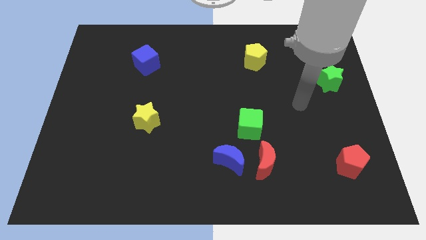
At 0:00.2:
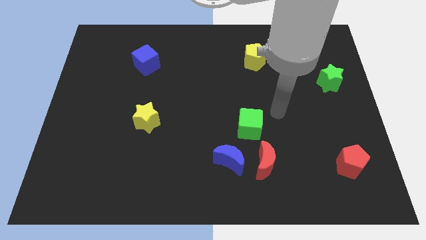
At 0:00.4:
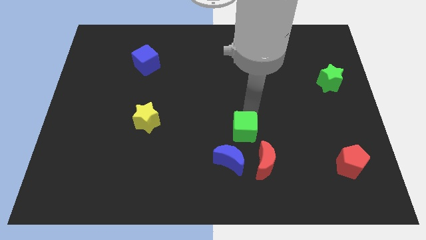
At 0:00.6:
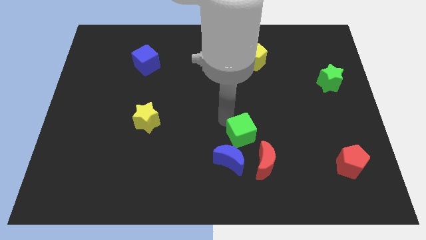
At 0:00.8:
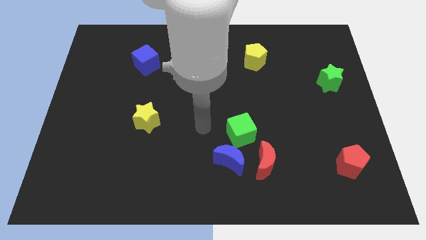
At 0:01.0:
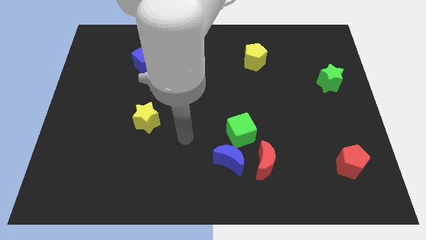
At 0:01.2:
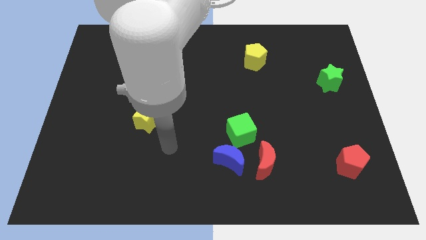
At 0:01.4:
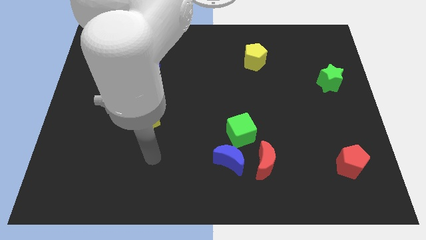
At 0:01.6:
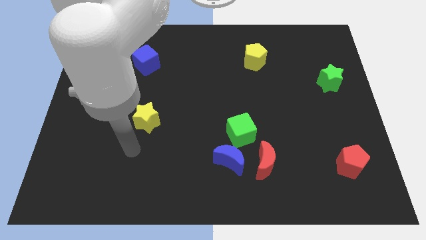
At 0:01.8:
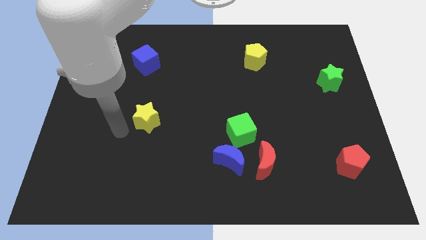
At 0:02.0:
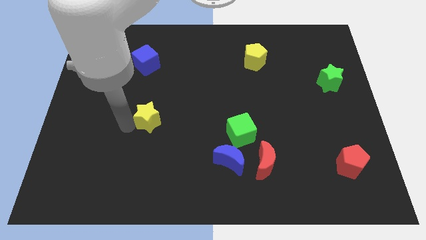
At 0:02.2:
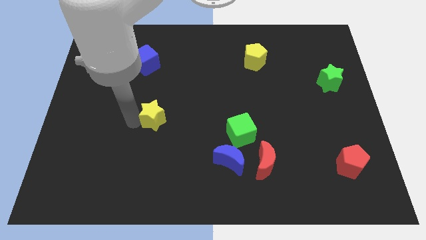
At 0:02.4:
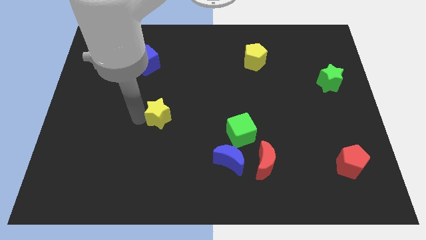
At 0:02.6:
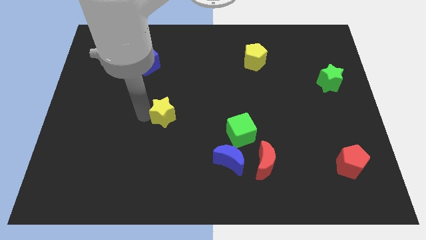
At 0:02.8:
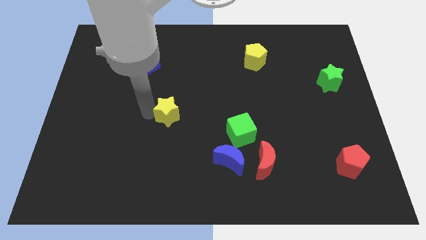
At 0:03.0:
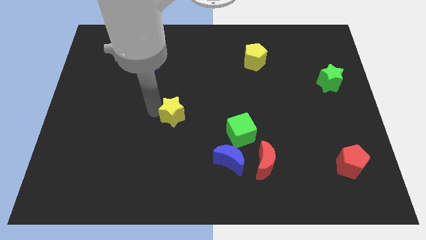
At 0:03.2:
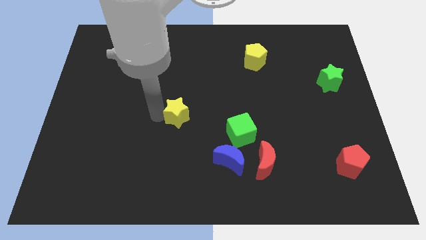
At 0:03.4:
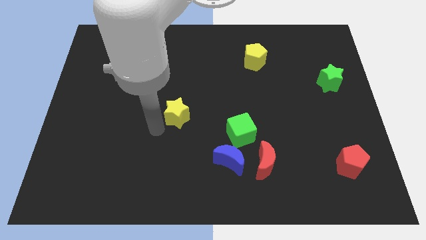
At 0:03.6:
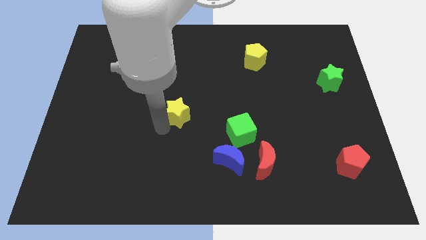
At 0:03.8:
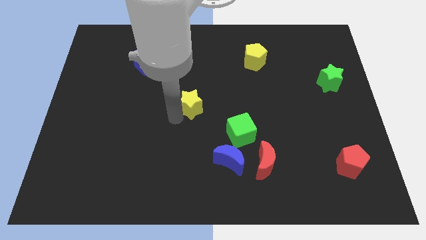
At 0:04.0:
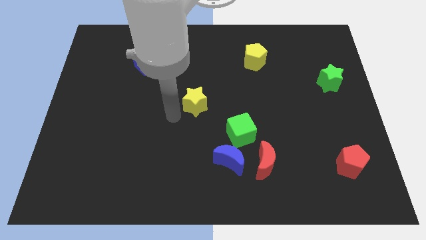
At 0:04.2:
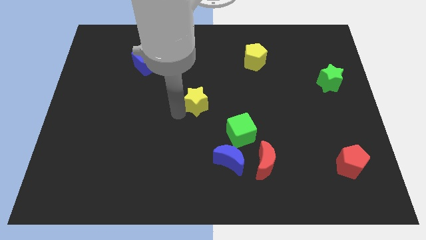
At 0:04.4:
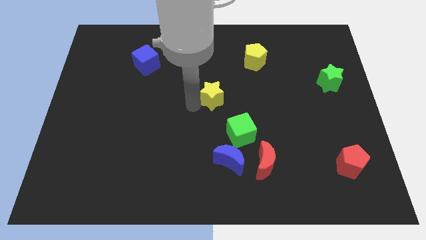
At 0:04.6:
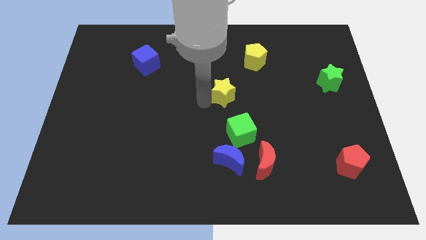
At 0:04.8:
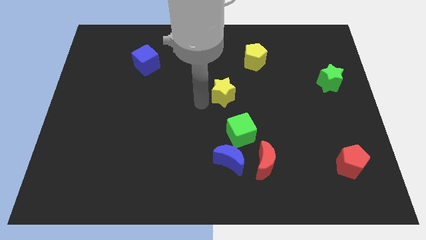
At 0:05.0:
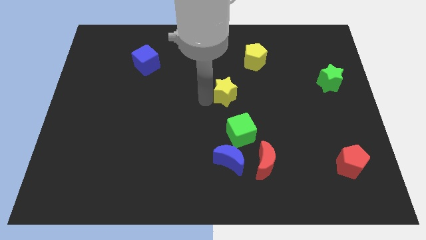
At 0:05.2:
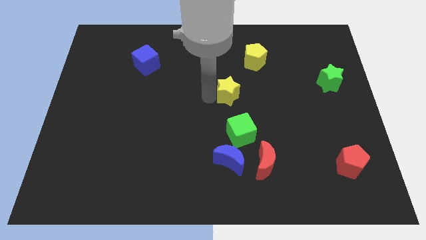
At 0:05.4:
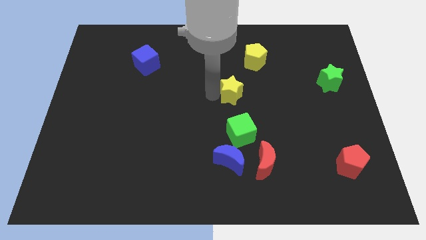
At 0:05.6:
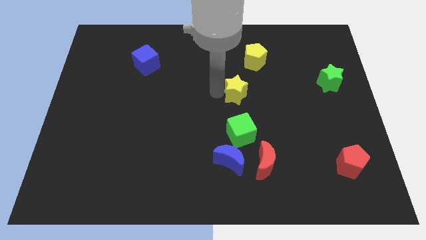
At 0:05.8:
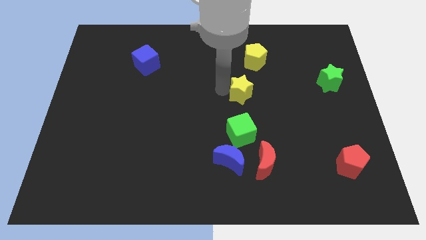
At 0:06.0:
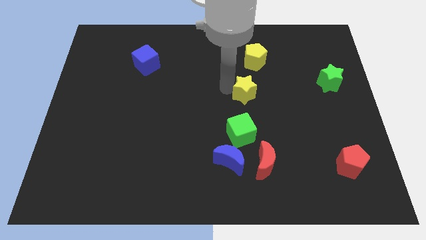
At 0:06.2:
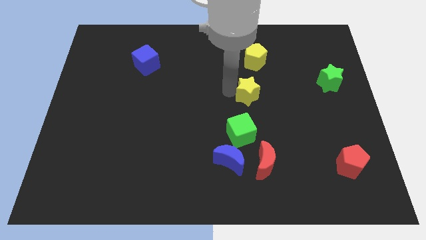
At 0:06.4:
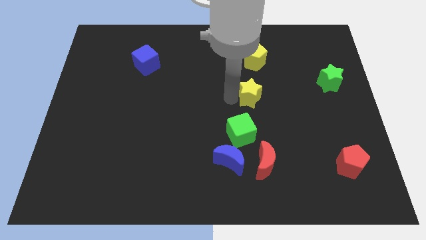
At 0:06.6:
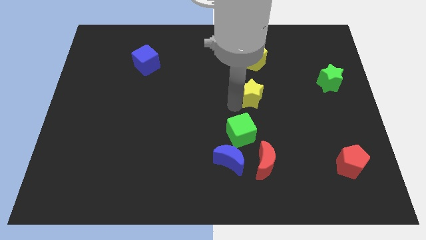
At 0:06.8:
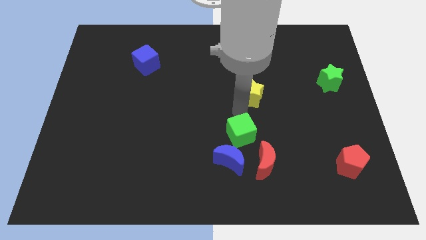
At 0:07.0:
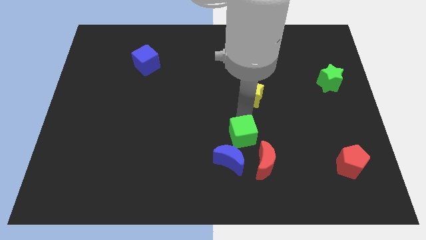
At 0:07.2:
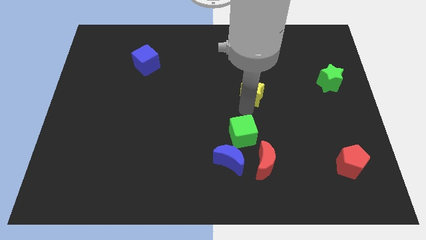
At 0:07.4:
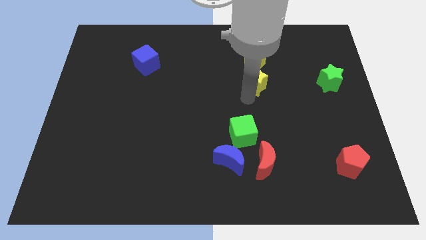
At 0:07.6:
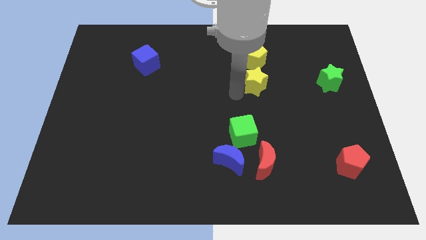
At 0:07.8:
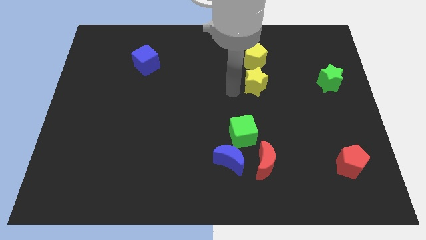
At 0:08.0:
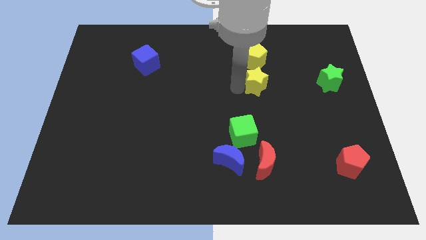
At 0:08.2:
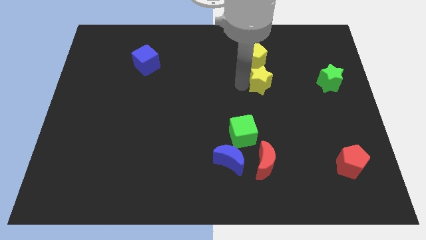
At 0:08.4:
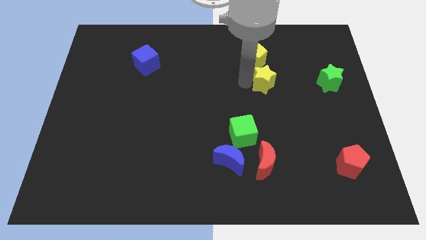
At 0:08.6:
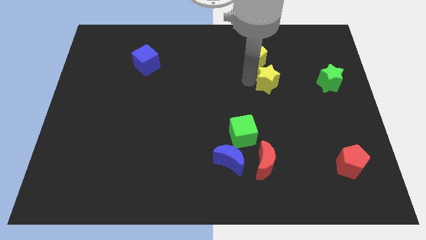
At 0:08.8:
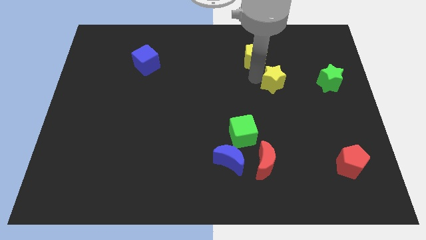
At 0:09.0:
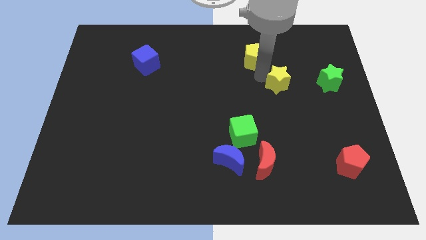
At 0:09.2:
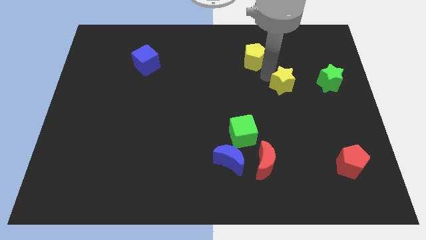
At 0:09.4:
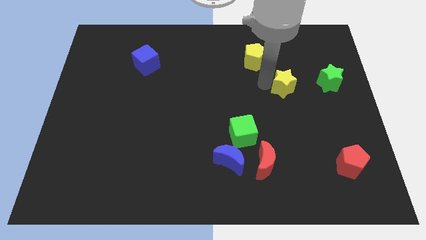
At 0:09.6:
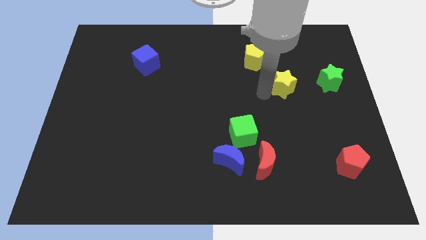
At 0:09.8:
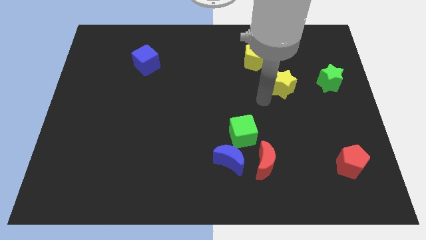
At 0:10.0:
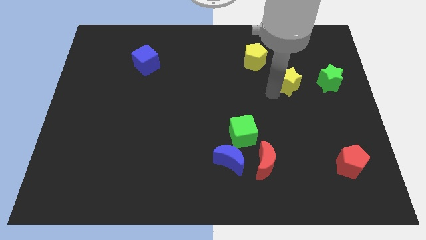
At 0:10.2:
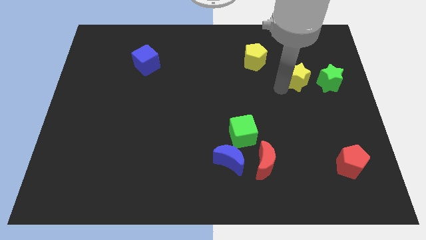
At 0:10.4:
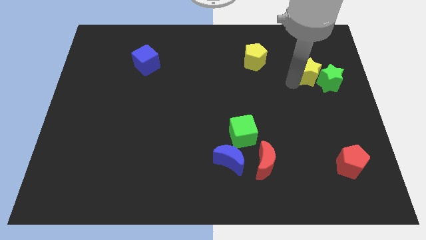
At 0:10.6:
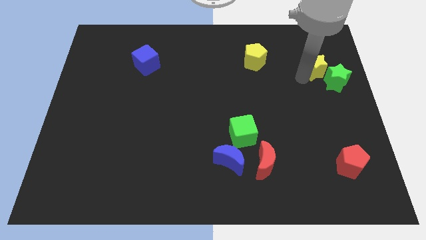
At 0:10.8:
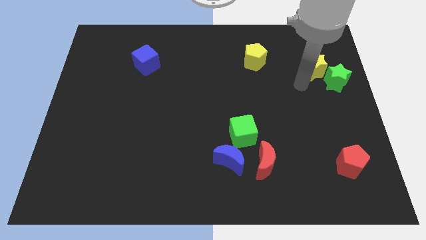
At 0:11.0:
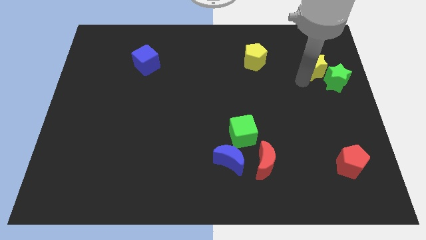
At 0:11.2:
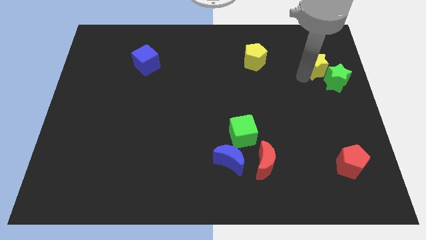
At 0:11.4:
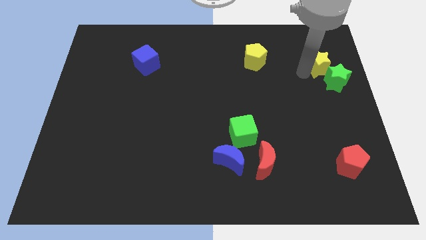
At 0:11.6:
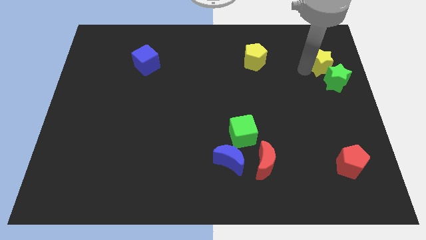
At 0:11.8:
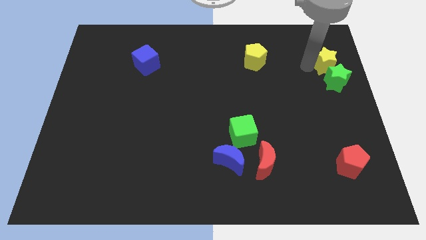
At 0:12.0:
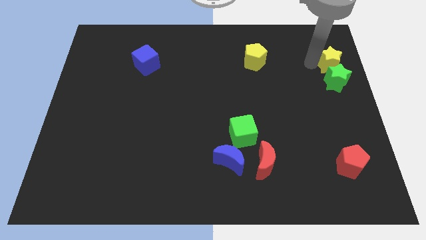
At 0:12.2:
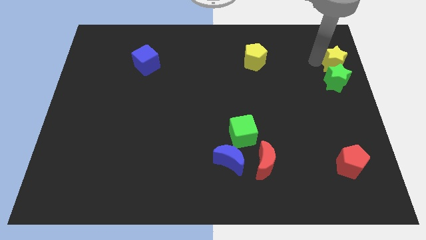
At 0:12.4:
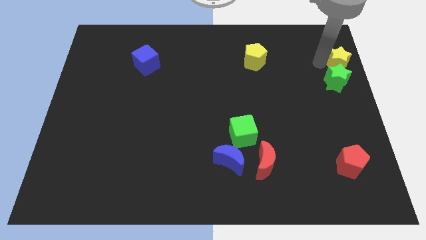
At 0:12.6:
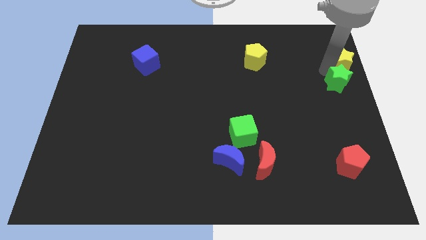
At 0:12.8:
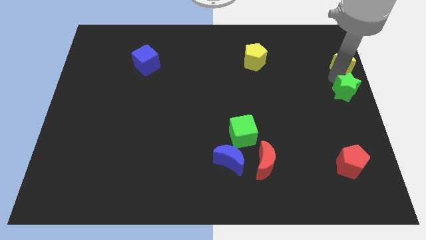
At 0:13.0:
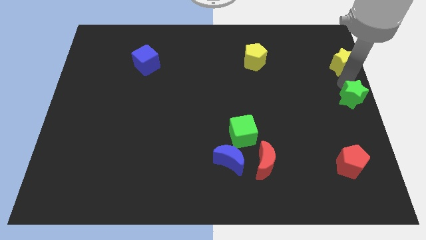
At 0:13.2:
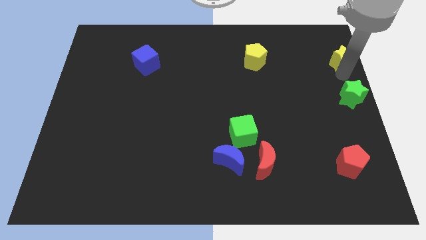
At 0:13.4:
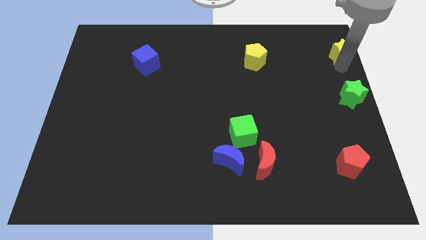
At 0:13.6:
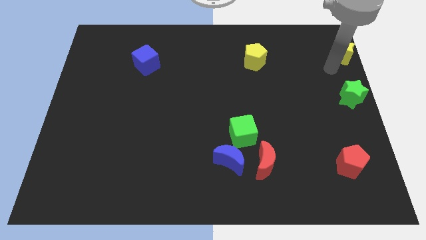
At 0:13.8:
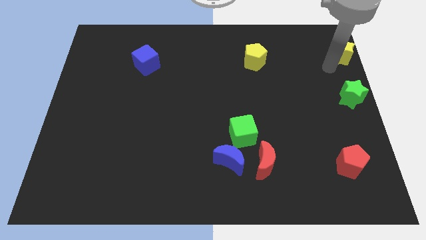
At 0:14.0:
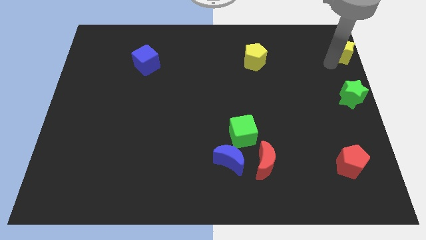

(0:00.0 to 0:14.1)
slide the yellow star to the upper right corner
